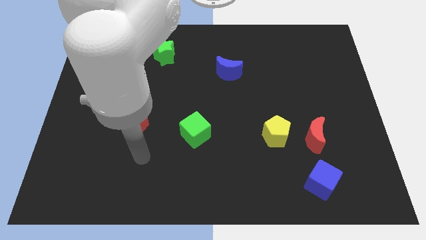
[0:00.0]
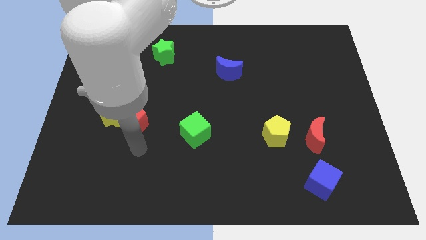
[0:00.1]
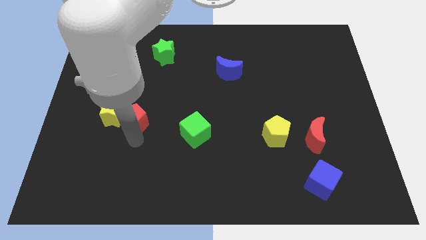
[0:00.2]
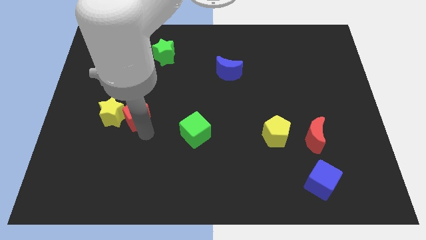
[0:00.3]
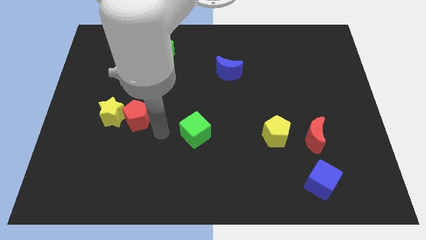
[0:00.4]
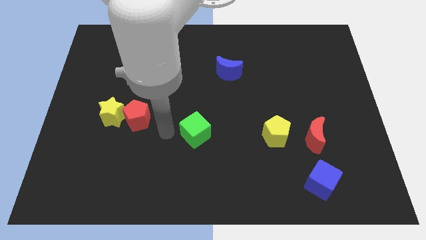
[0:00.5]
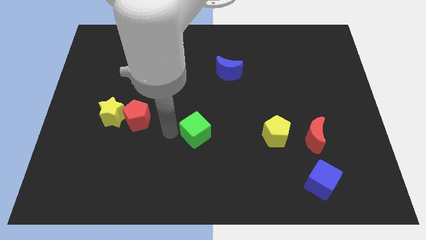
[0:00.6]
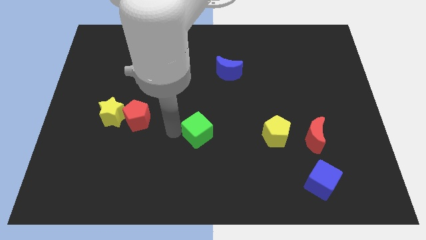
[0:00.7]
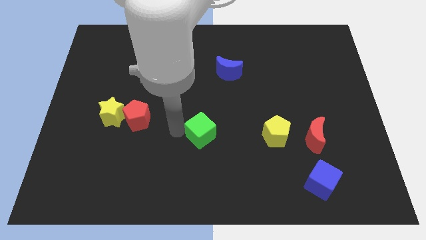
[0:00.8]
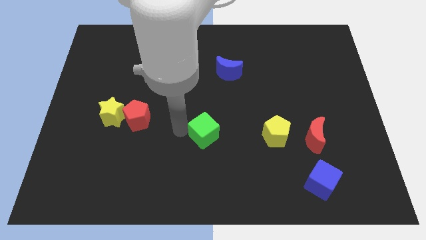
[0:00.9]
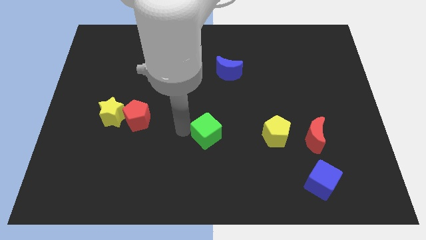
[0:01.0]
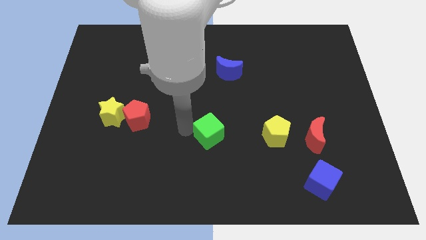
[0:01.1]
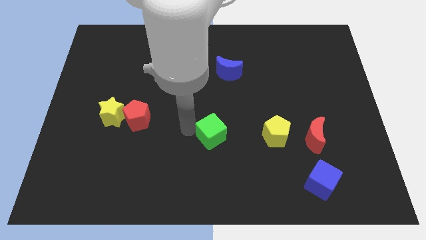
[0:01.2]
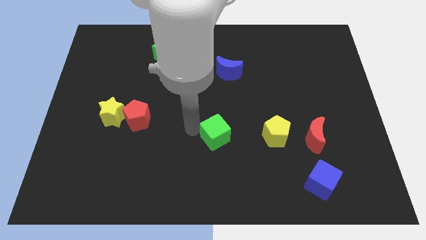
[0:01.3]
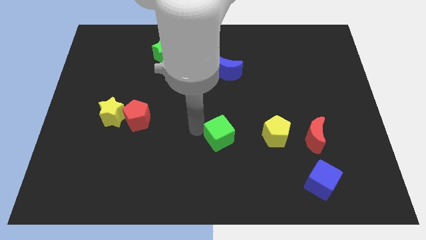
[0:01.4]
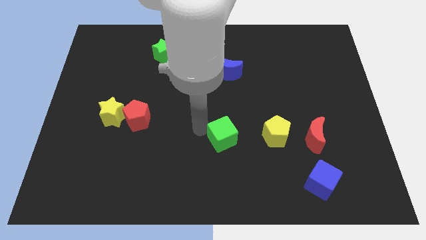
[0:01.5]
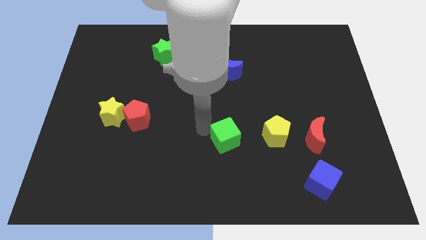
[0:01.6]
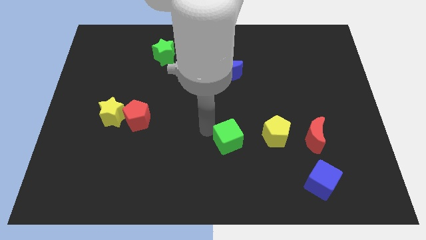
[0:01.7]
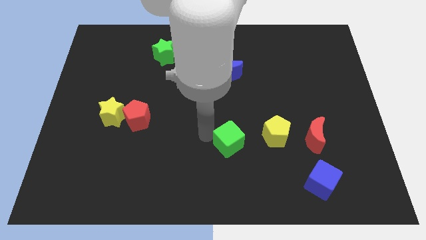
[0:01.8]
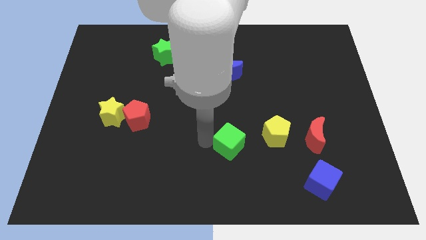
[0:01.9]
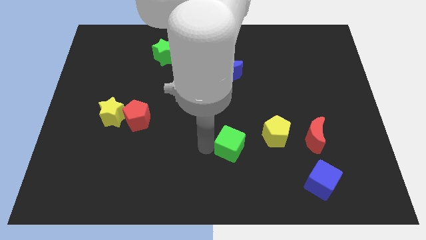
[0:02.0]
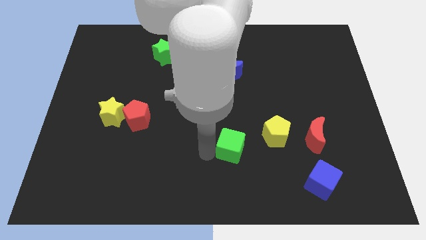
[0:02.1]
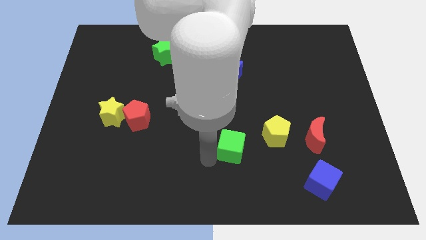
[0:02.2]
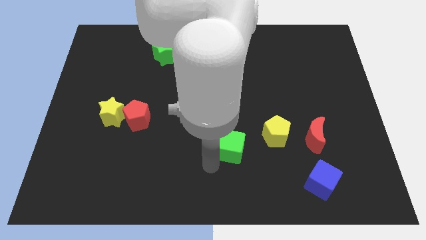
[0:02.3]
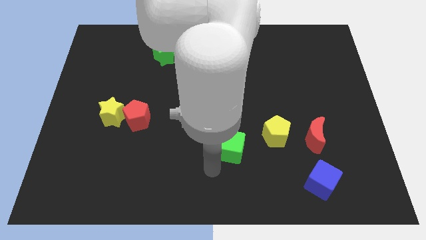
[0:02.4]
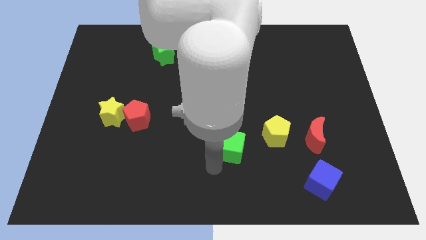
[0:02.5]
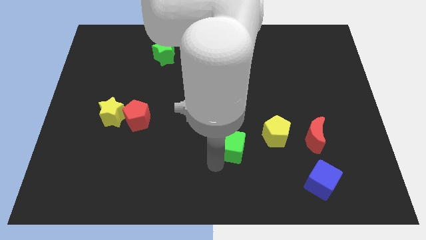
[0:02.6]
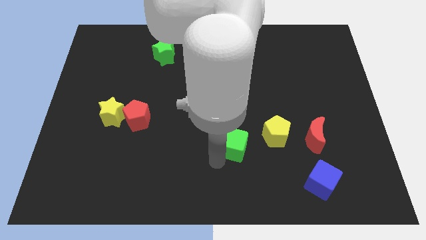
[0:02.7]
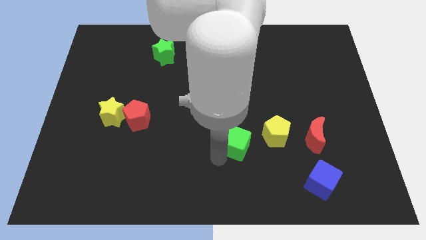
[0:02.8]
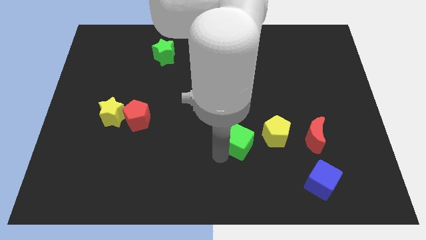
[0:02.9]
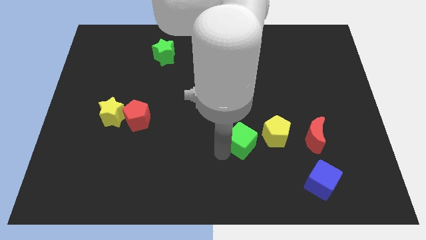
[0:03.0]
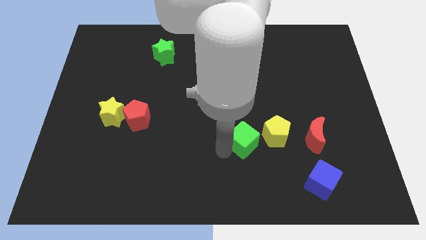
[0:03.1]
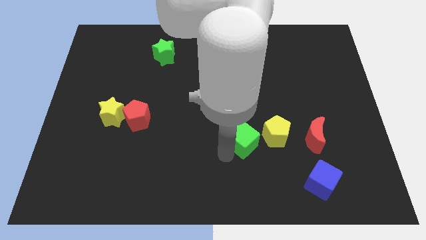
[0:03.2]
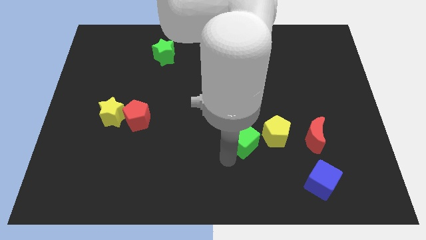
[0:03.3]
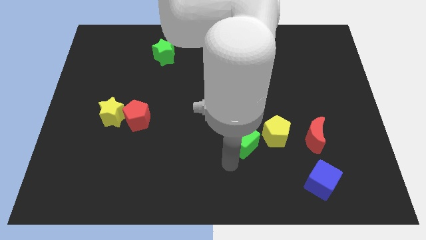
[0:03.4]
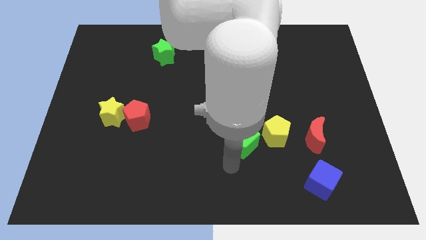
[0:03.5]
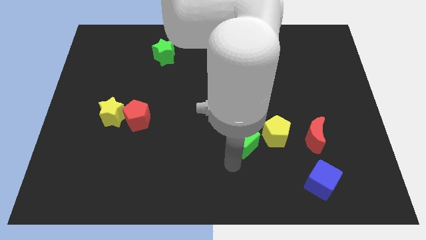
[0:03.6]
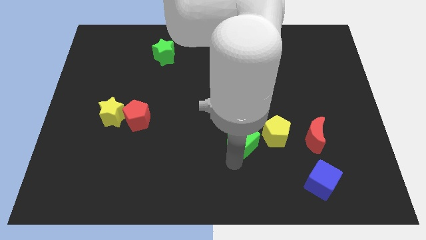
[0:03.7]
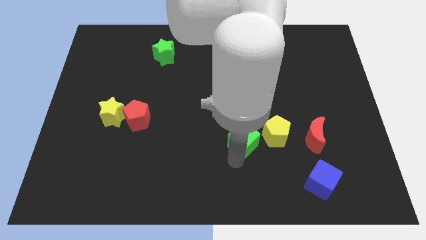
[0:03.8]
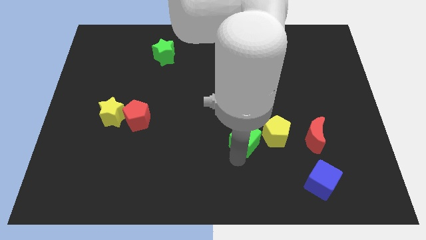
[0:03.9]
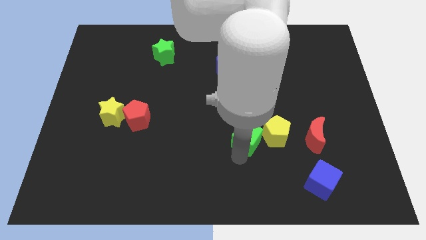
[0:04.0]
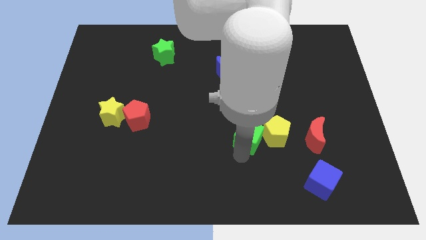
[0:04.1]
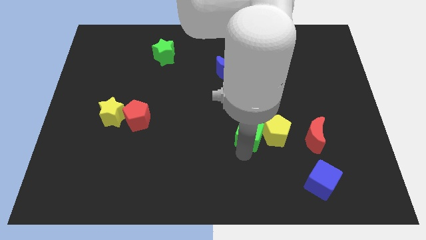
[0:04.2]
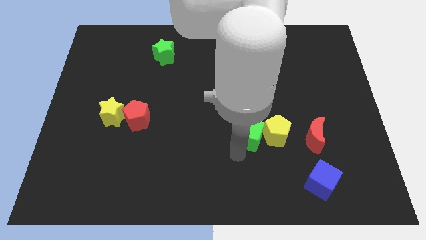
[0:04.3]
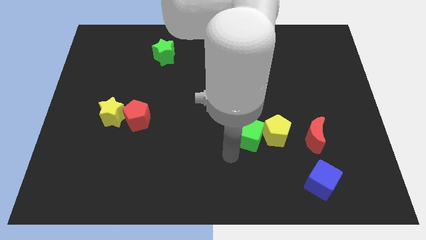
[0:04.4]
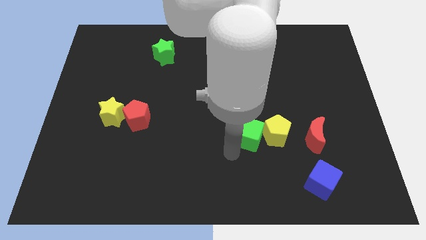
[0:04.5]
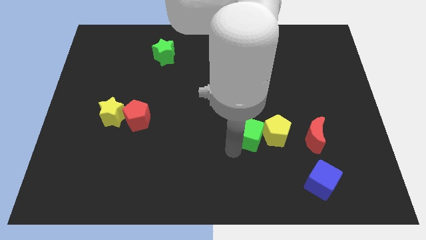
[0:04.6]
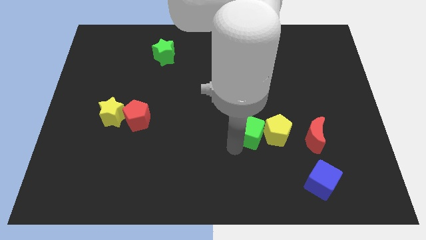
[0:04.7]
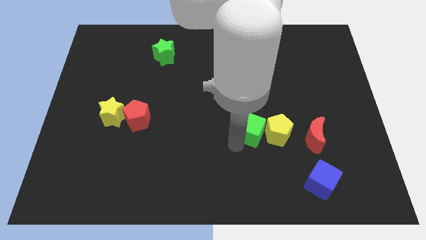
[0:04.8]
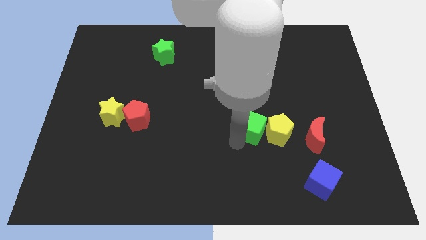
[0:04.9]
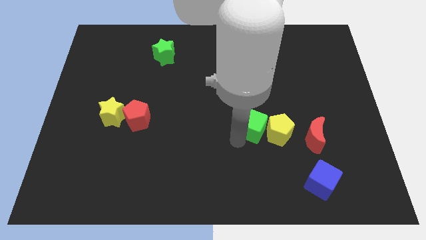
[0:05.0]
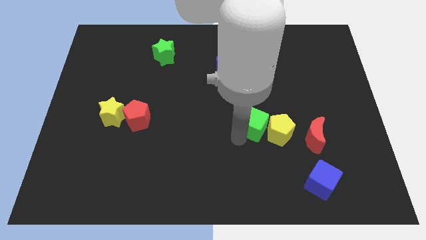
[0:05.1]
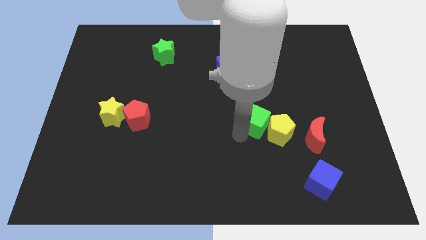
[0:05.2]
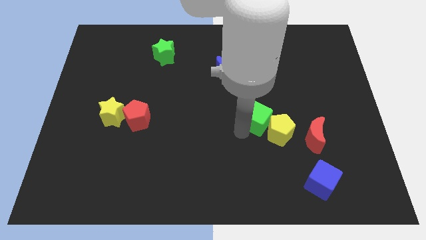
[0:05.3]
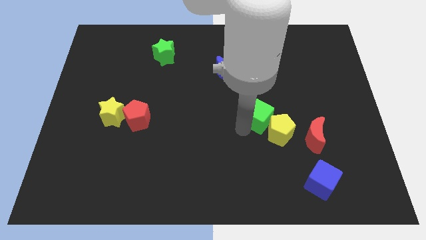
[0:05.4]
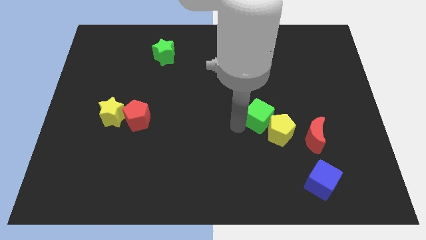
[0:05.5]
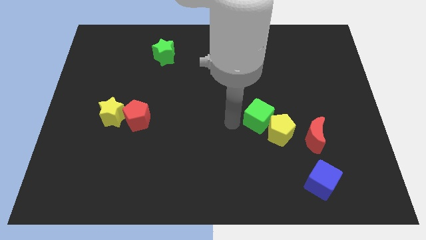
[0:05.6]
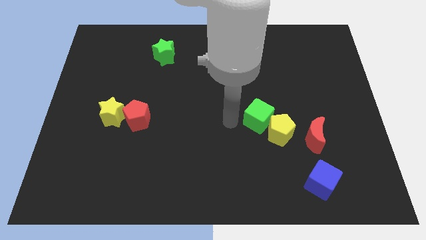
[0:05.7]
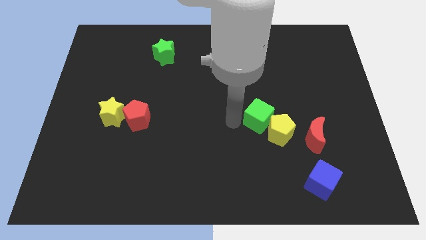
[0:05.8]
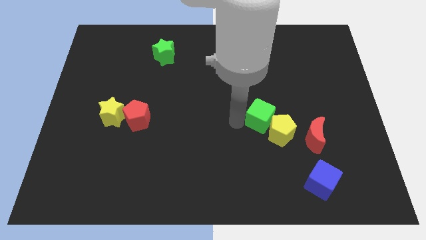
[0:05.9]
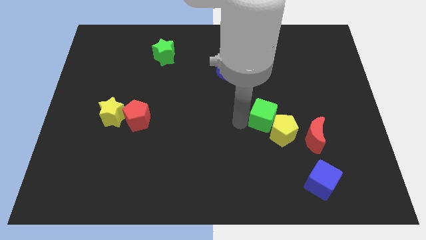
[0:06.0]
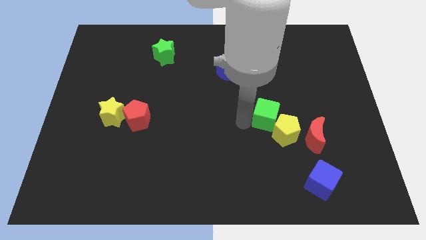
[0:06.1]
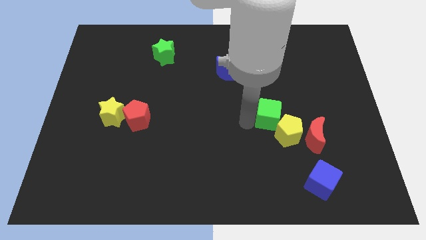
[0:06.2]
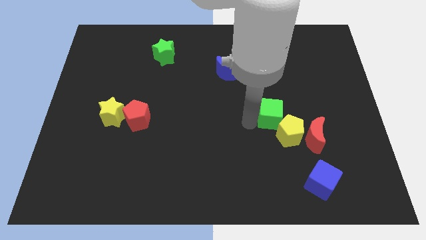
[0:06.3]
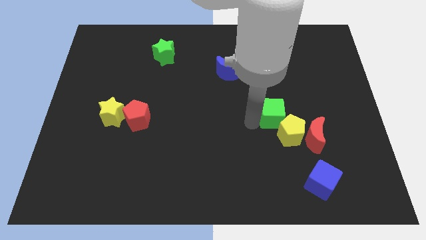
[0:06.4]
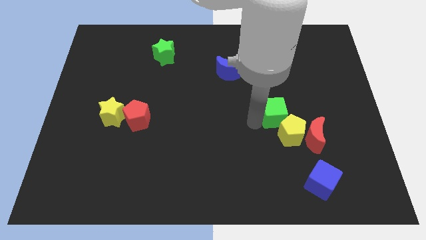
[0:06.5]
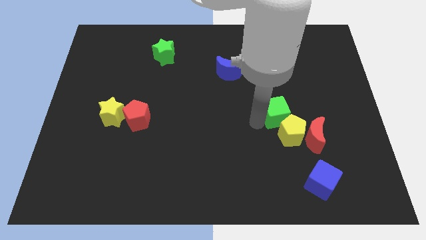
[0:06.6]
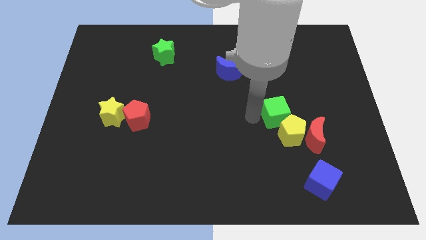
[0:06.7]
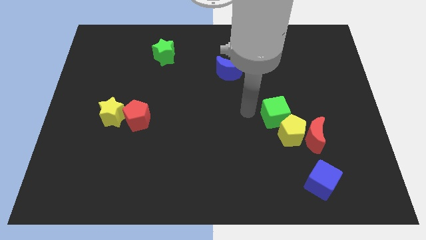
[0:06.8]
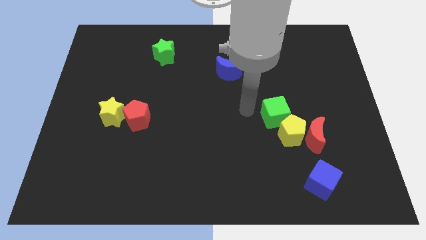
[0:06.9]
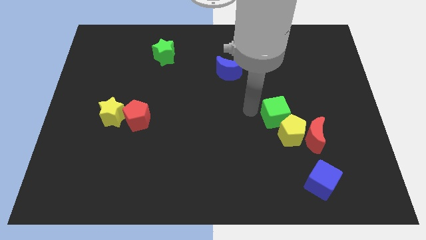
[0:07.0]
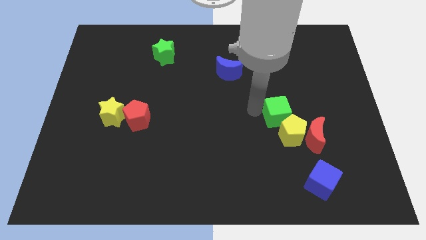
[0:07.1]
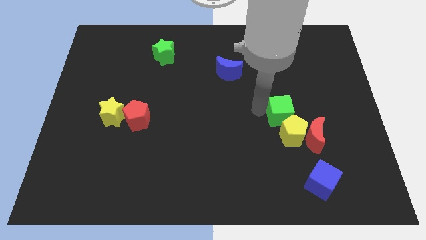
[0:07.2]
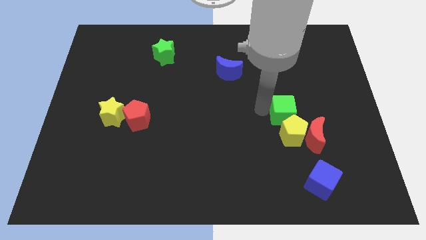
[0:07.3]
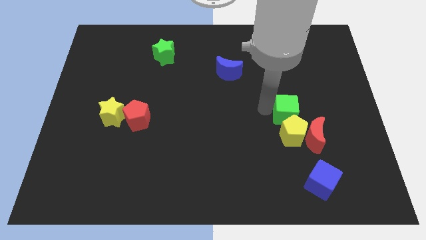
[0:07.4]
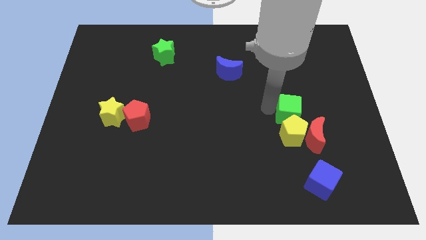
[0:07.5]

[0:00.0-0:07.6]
move the green cube to the right

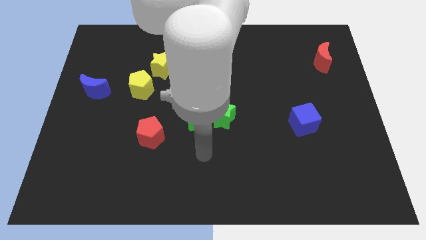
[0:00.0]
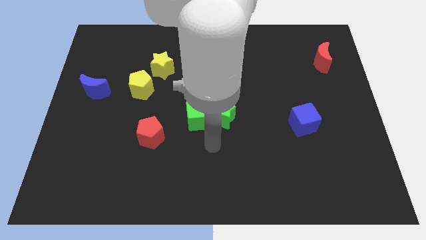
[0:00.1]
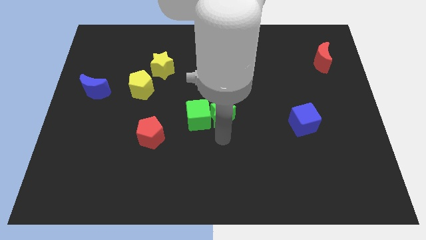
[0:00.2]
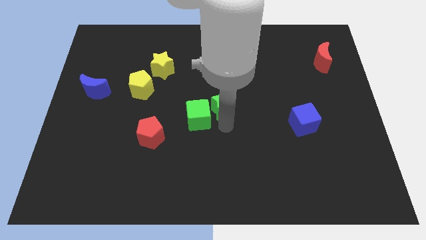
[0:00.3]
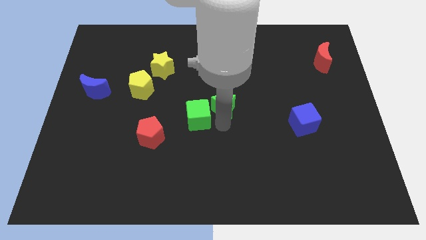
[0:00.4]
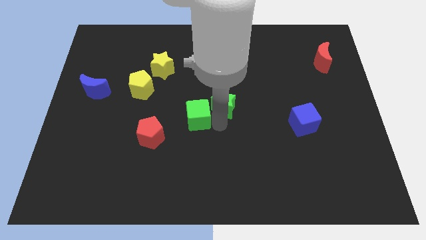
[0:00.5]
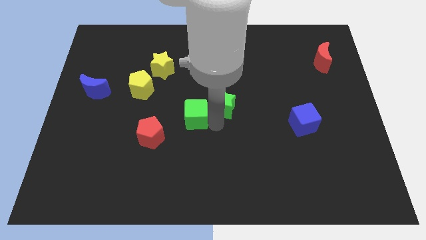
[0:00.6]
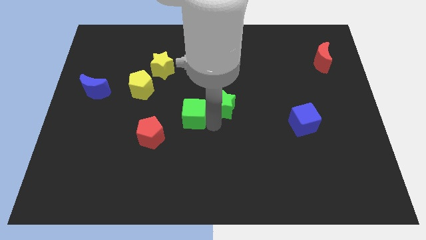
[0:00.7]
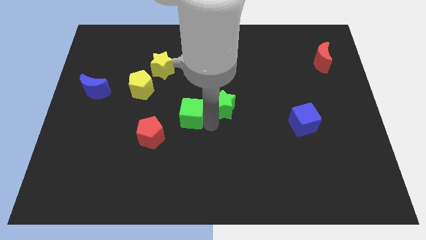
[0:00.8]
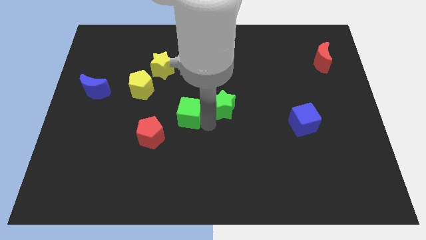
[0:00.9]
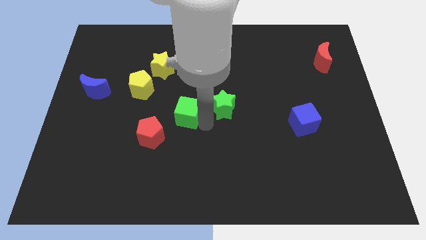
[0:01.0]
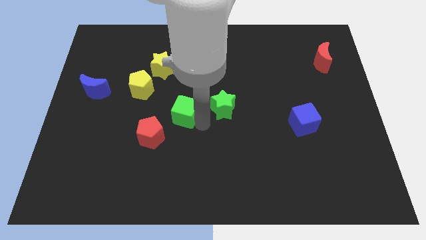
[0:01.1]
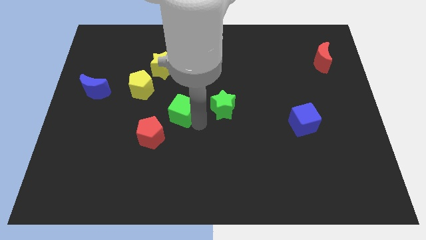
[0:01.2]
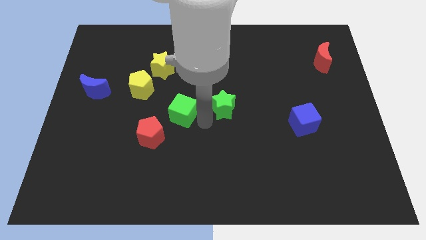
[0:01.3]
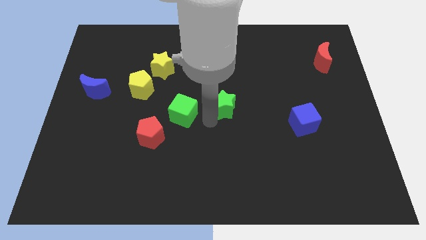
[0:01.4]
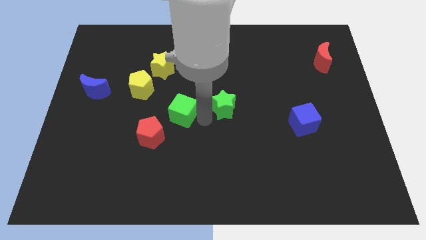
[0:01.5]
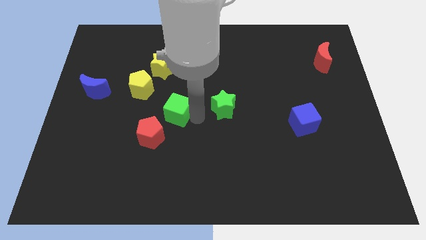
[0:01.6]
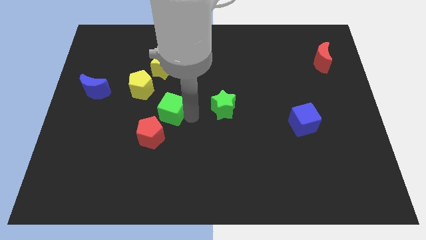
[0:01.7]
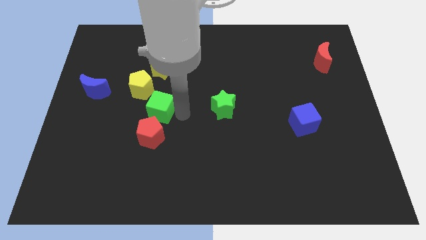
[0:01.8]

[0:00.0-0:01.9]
slide the green cube up and then left a little
